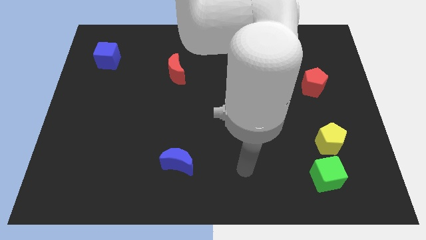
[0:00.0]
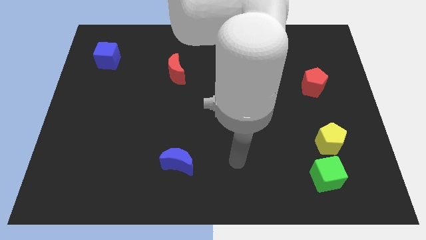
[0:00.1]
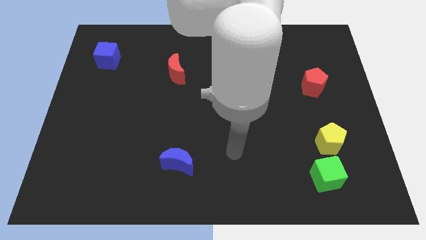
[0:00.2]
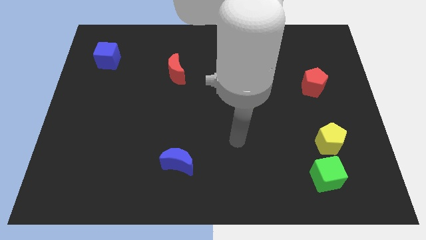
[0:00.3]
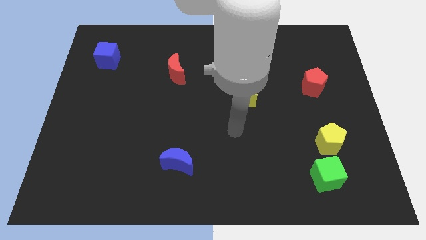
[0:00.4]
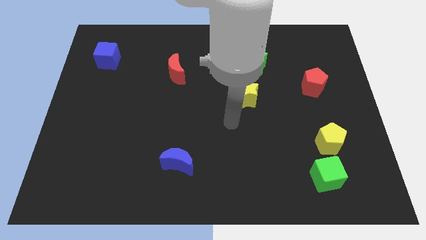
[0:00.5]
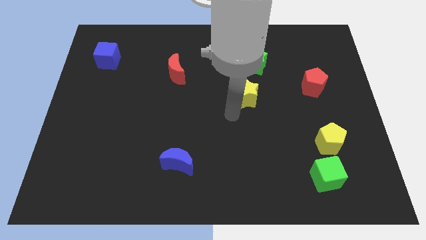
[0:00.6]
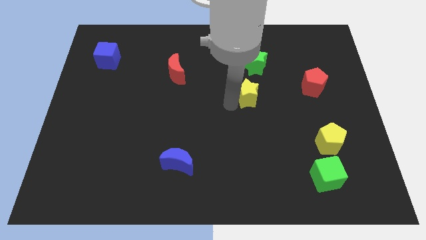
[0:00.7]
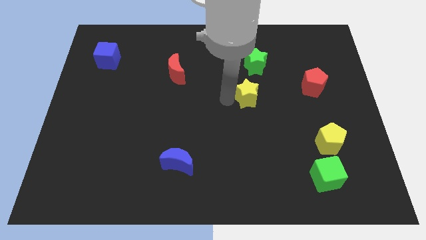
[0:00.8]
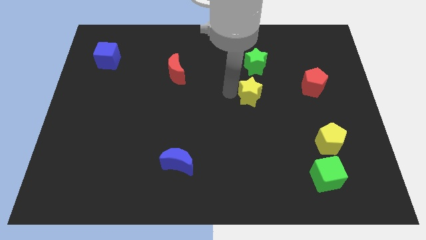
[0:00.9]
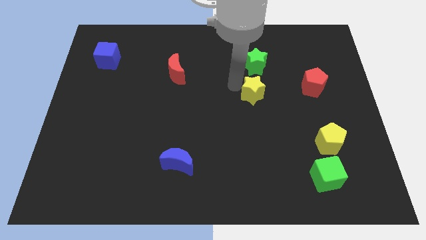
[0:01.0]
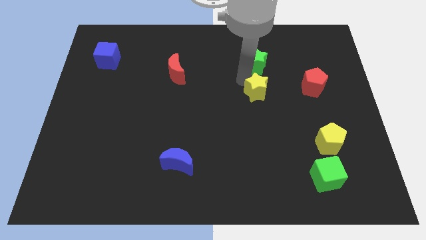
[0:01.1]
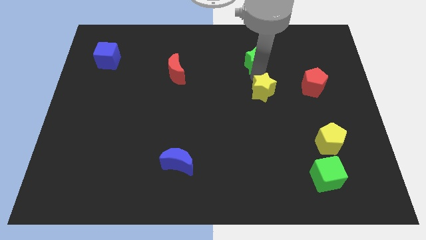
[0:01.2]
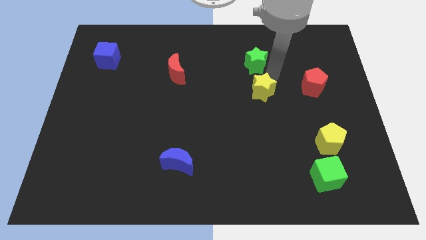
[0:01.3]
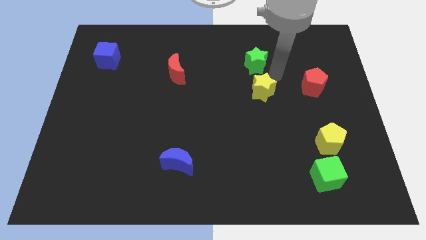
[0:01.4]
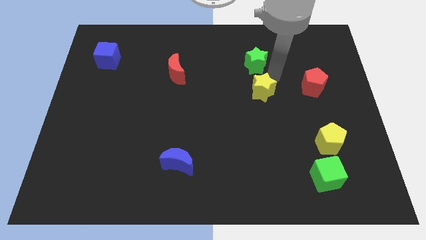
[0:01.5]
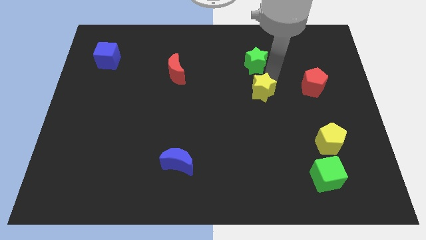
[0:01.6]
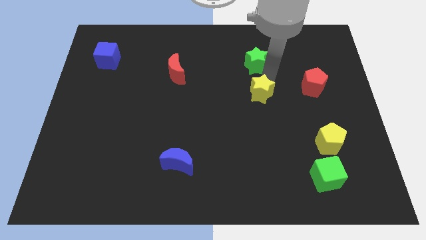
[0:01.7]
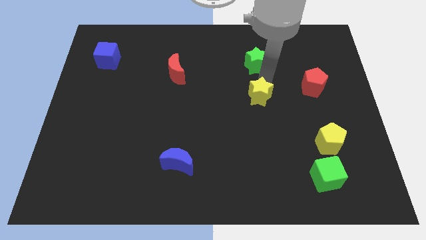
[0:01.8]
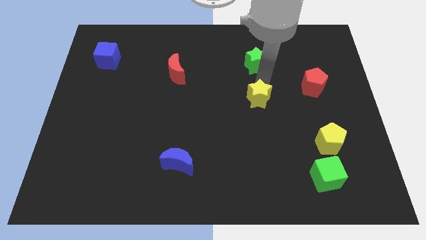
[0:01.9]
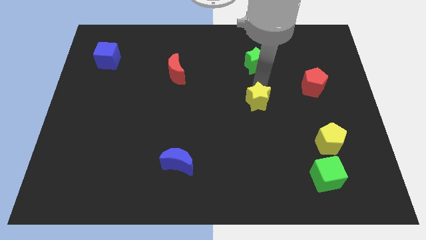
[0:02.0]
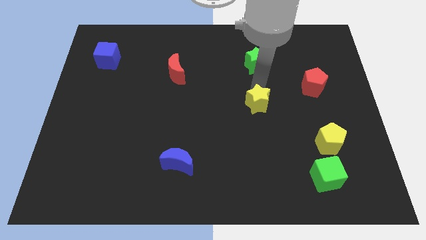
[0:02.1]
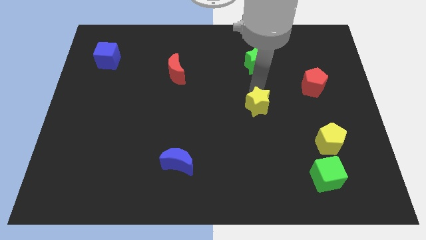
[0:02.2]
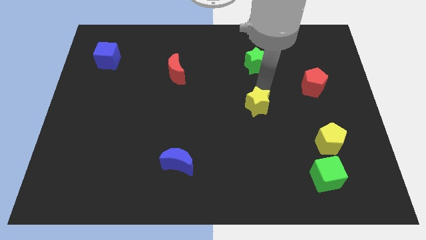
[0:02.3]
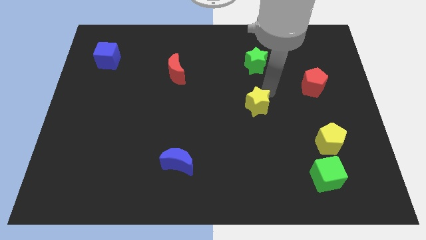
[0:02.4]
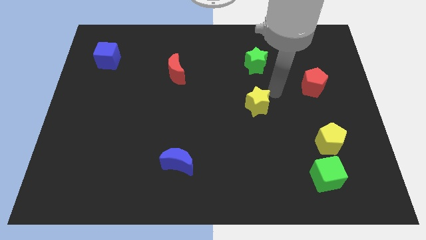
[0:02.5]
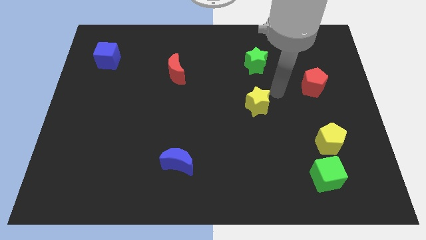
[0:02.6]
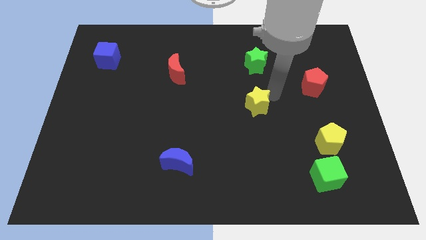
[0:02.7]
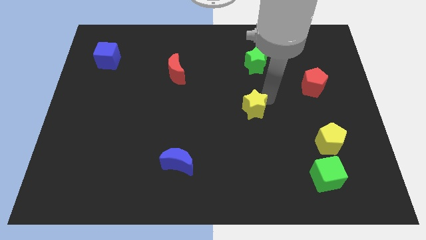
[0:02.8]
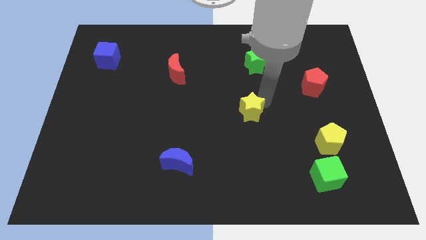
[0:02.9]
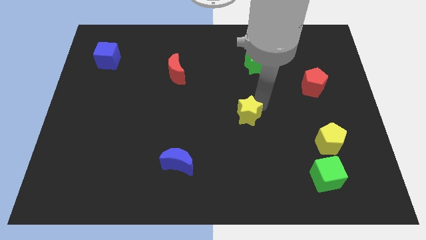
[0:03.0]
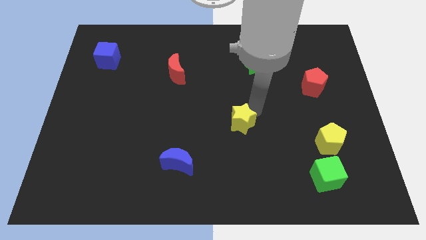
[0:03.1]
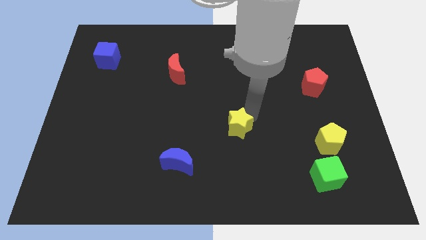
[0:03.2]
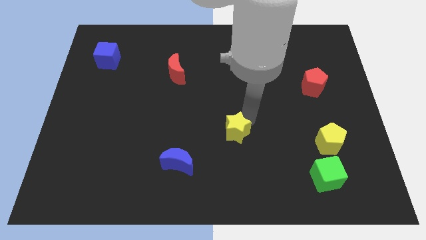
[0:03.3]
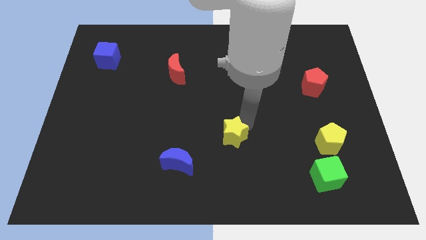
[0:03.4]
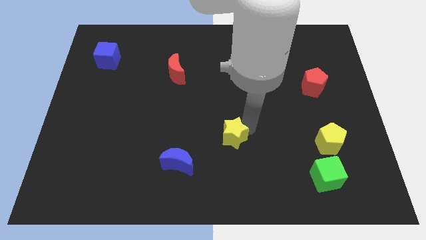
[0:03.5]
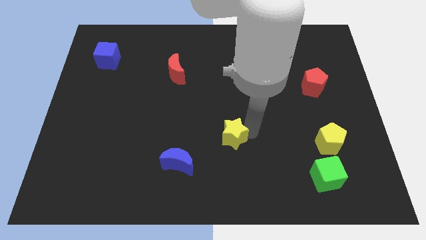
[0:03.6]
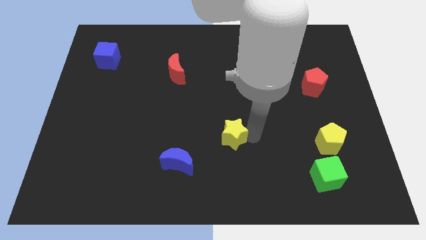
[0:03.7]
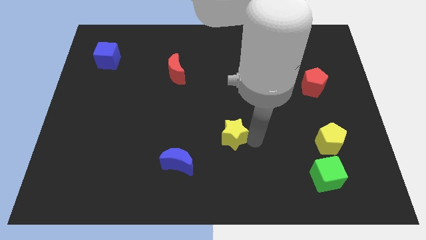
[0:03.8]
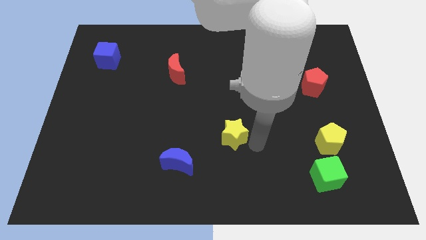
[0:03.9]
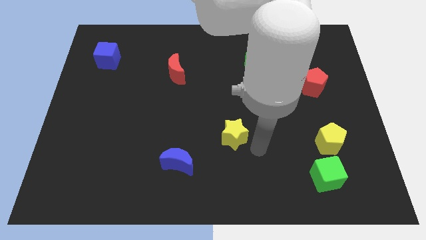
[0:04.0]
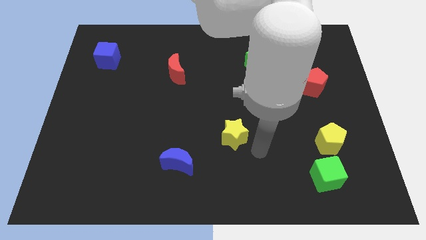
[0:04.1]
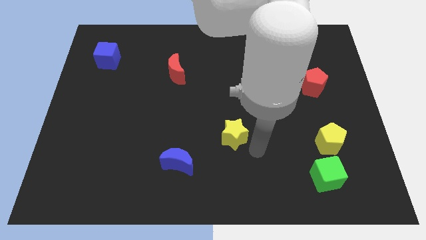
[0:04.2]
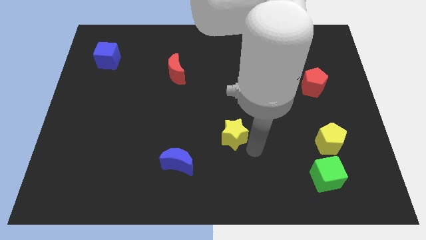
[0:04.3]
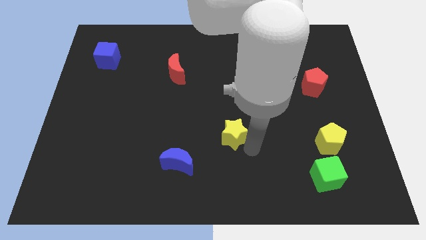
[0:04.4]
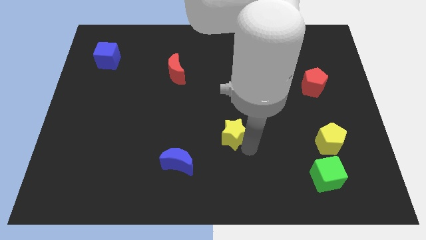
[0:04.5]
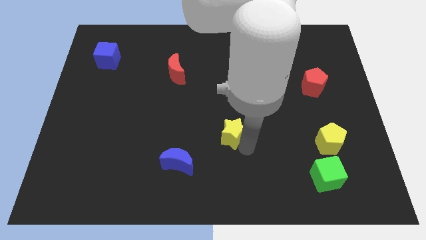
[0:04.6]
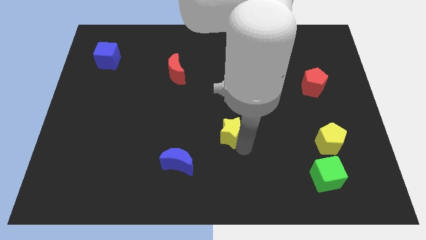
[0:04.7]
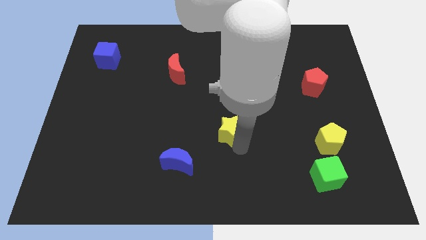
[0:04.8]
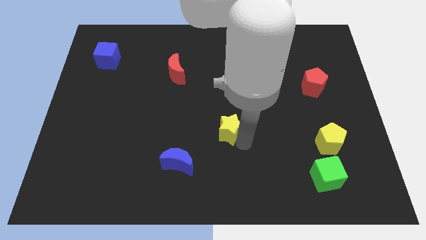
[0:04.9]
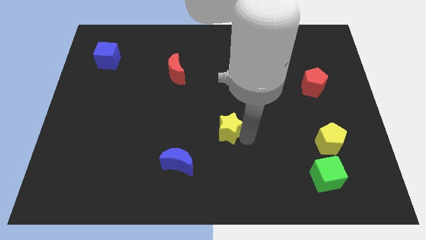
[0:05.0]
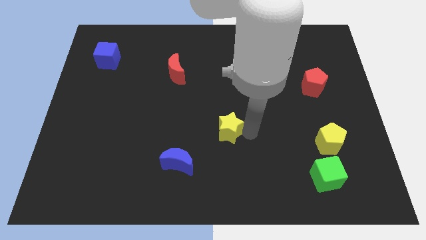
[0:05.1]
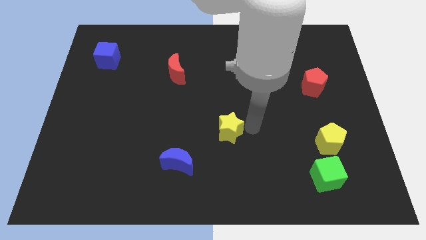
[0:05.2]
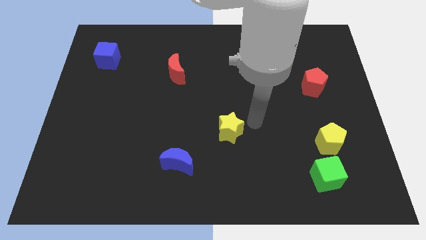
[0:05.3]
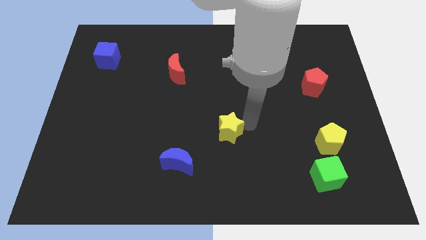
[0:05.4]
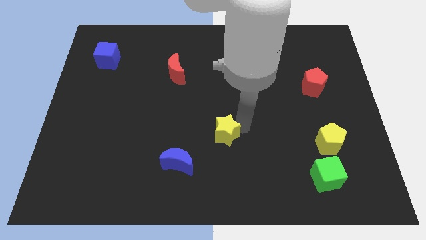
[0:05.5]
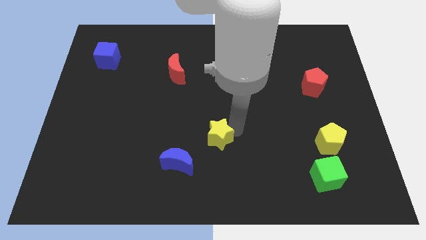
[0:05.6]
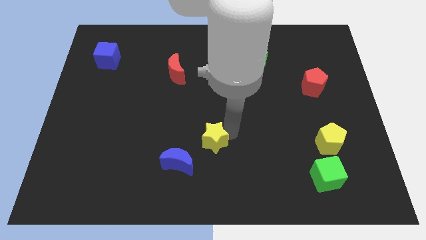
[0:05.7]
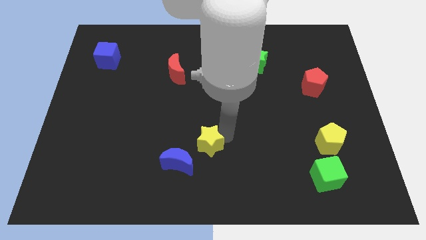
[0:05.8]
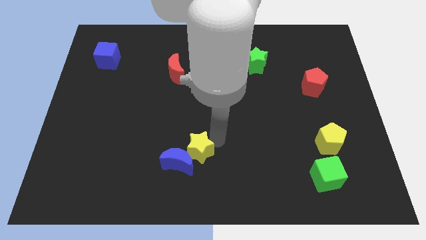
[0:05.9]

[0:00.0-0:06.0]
push the yellow star close to the blue moon
